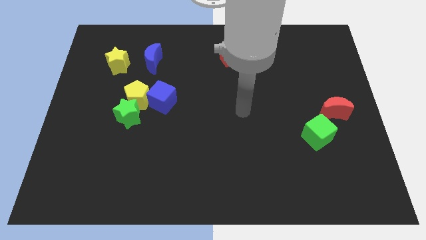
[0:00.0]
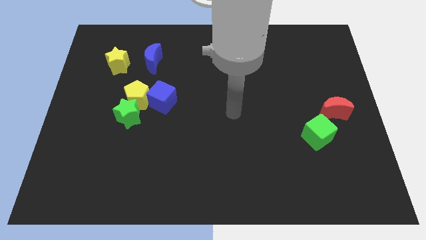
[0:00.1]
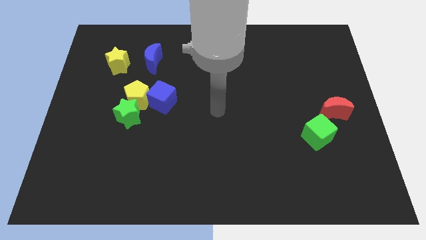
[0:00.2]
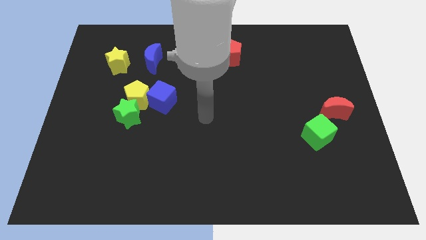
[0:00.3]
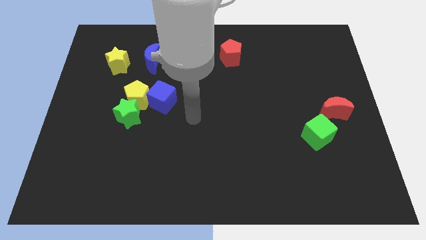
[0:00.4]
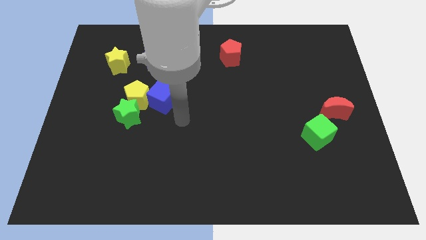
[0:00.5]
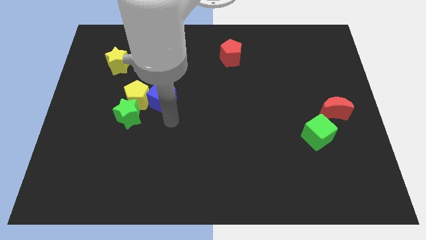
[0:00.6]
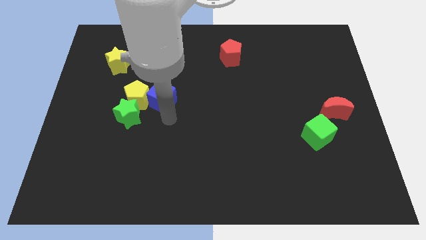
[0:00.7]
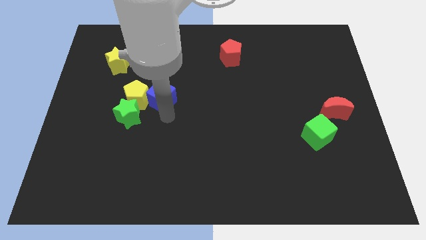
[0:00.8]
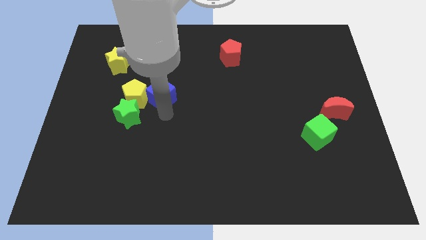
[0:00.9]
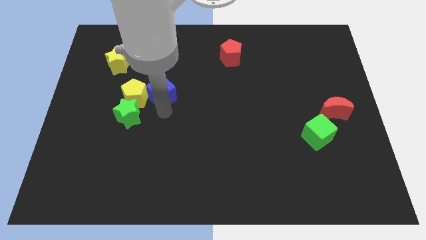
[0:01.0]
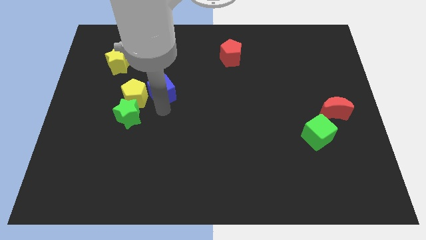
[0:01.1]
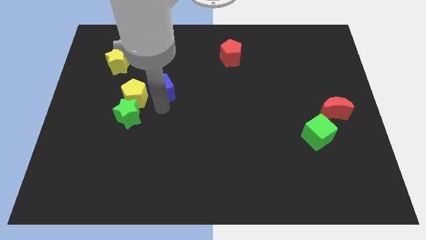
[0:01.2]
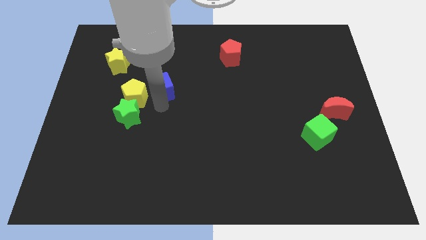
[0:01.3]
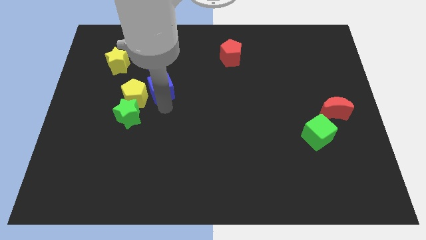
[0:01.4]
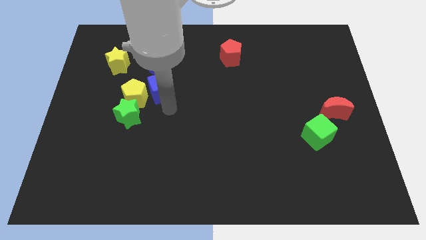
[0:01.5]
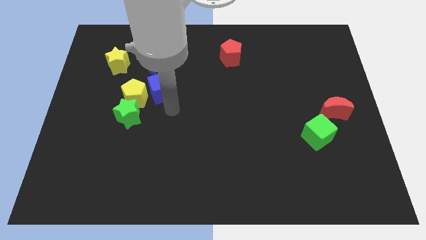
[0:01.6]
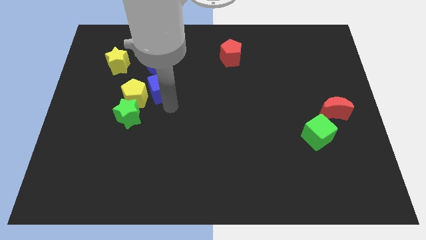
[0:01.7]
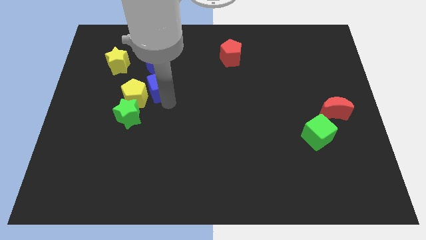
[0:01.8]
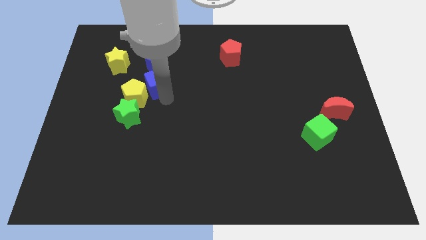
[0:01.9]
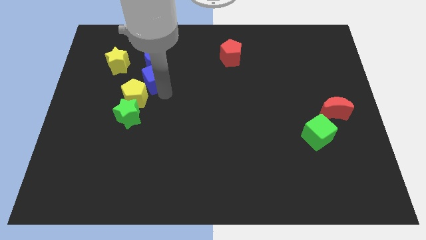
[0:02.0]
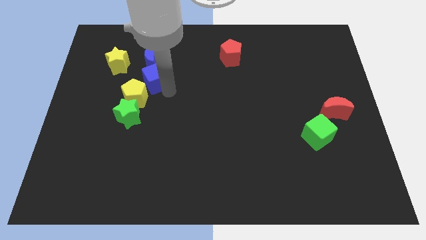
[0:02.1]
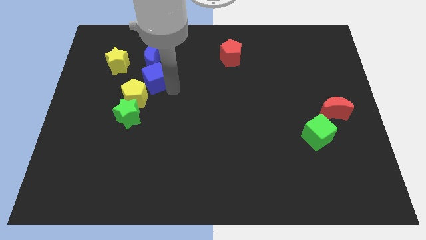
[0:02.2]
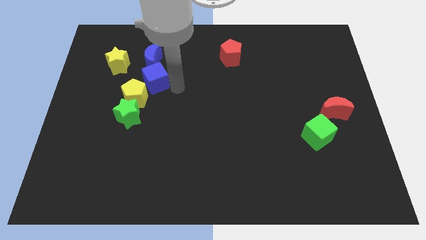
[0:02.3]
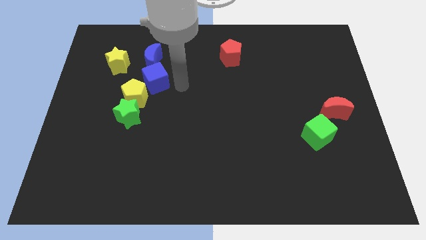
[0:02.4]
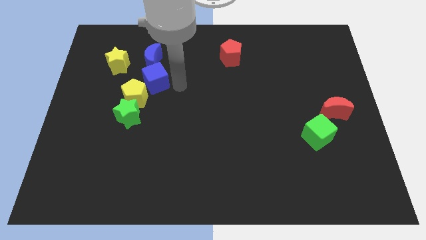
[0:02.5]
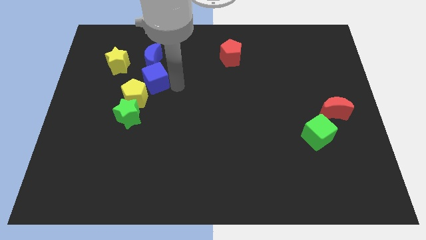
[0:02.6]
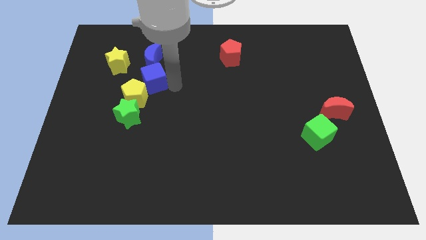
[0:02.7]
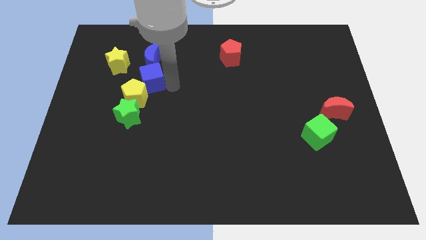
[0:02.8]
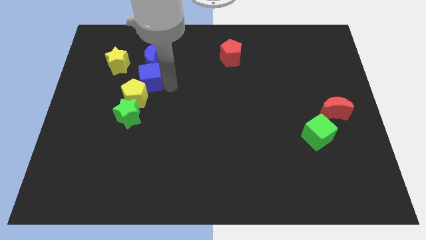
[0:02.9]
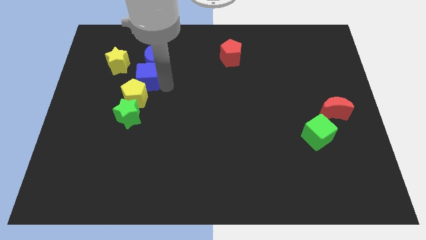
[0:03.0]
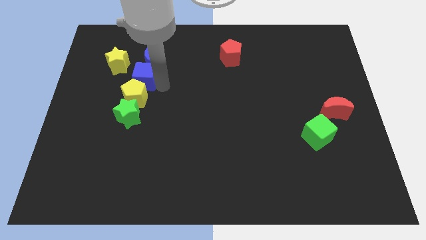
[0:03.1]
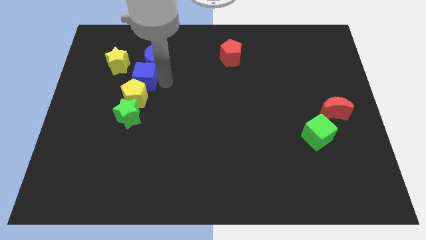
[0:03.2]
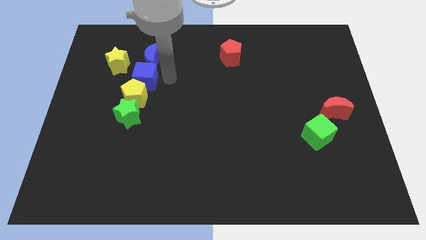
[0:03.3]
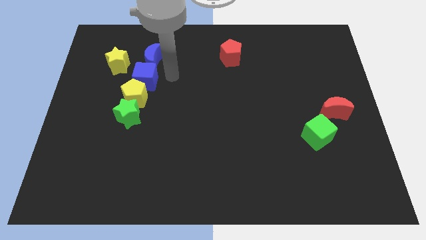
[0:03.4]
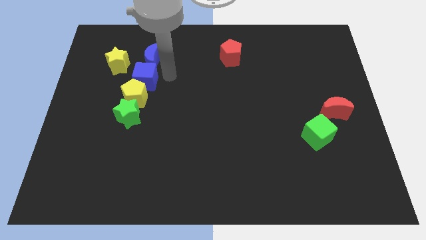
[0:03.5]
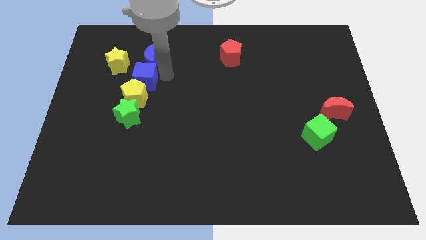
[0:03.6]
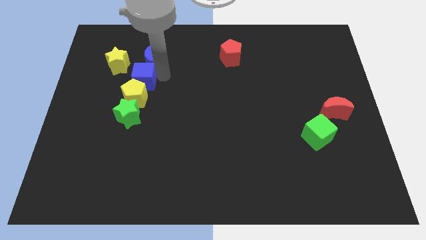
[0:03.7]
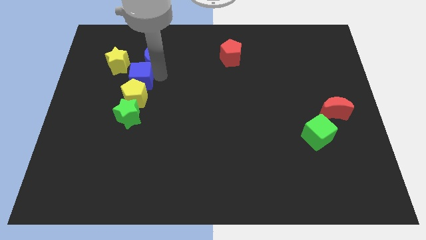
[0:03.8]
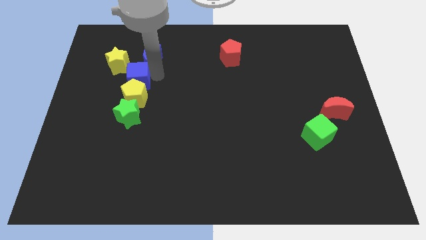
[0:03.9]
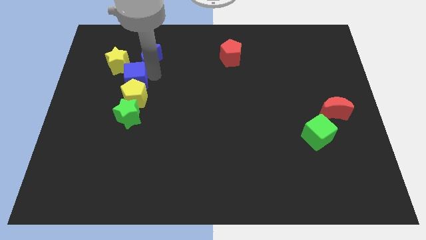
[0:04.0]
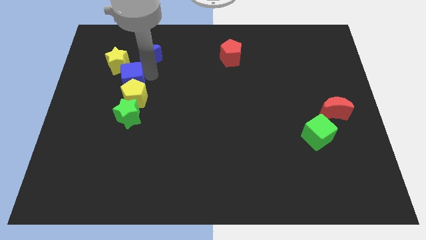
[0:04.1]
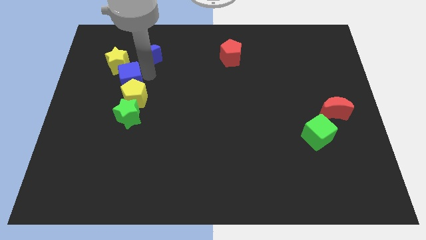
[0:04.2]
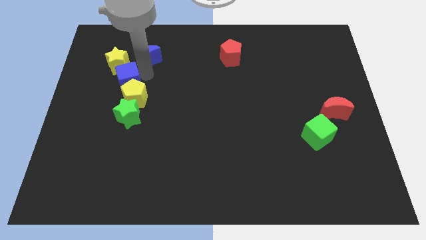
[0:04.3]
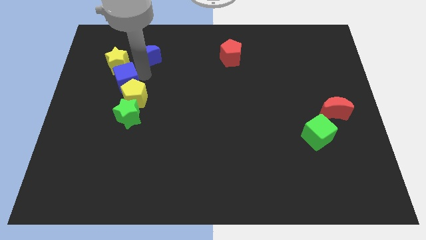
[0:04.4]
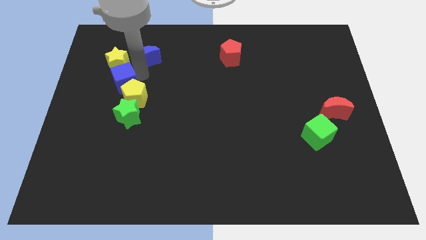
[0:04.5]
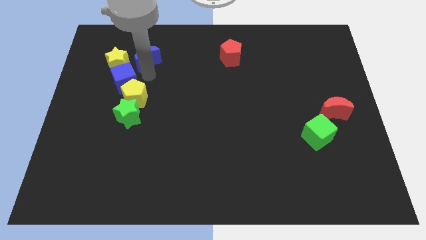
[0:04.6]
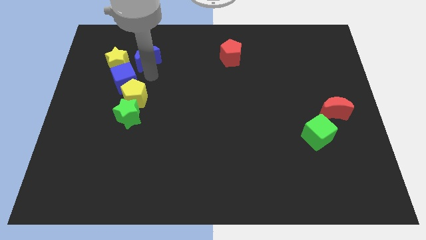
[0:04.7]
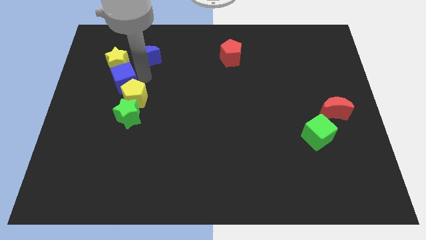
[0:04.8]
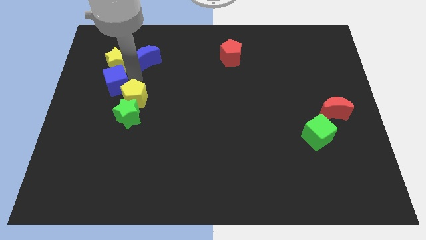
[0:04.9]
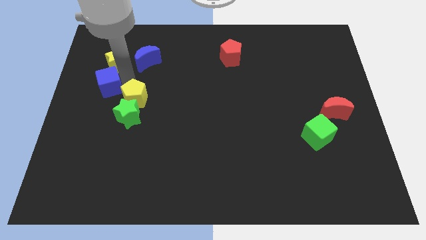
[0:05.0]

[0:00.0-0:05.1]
push the blue cube to the left side

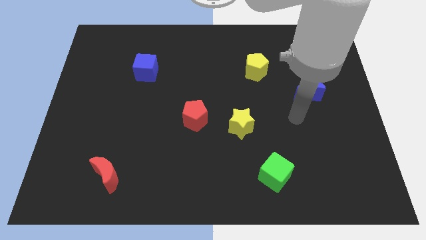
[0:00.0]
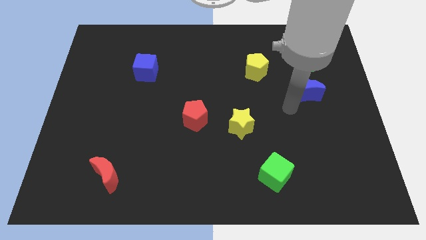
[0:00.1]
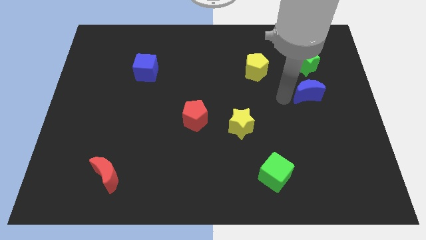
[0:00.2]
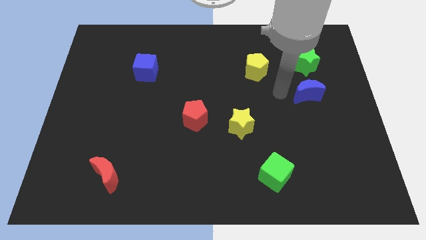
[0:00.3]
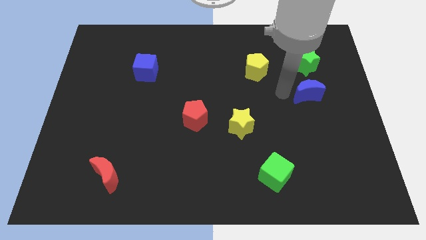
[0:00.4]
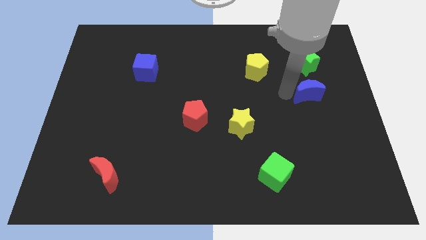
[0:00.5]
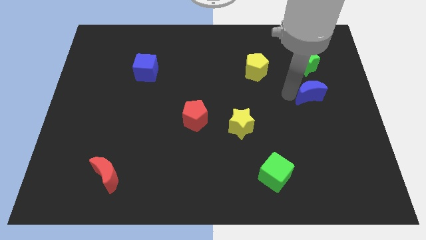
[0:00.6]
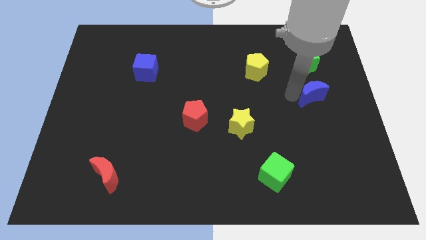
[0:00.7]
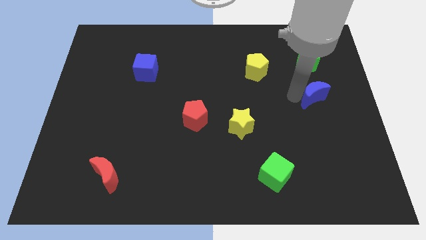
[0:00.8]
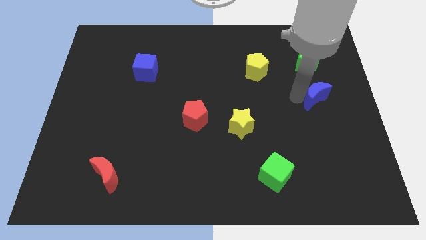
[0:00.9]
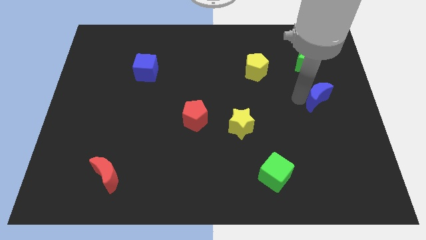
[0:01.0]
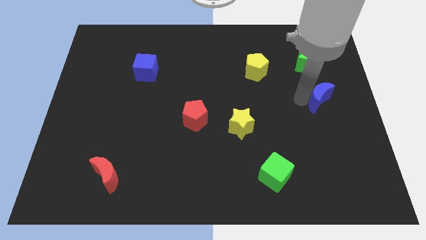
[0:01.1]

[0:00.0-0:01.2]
push the blue moon to the right side of the board
